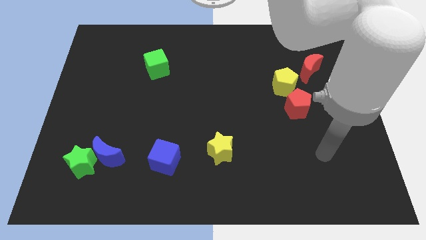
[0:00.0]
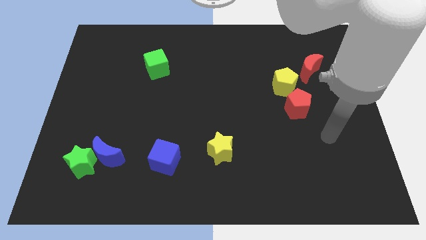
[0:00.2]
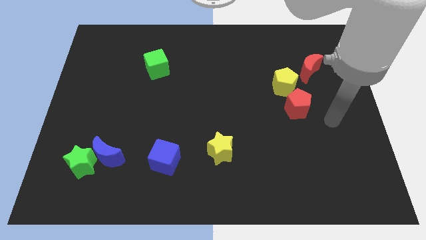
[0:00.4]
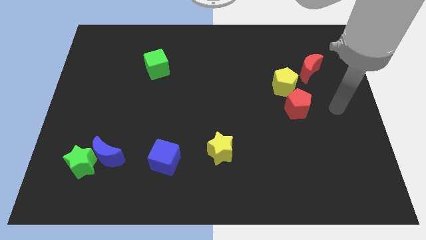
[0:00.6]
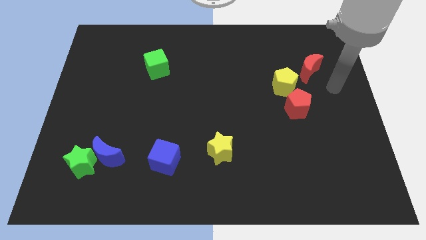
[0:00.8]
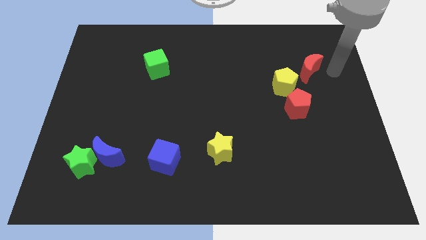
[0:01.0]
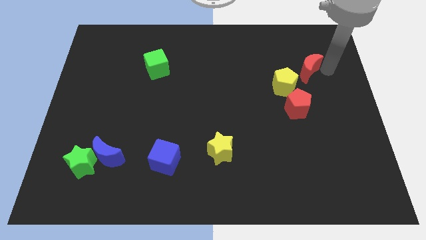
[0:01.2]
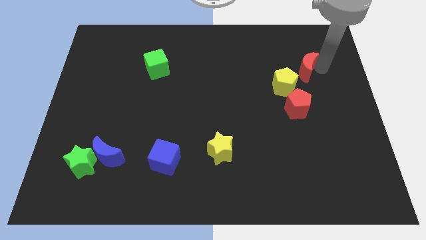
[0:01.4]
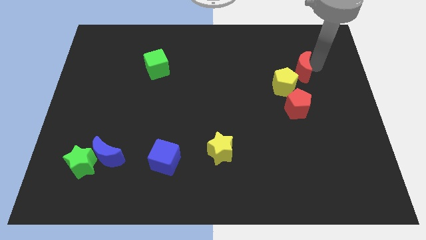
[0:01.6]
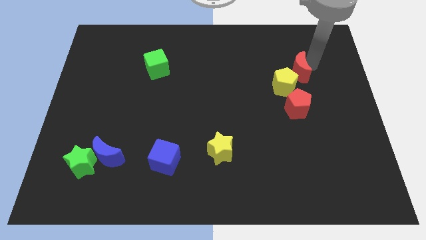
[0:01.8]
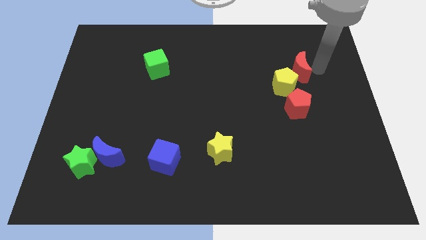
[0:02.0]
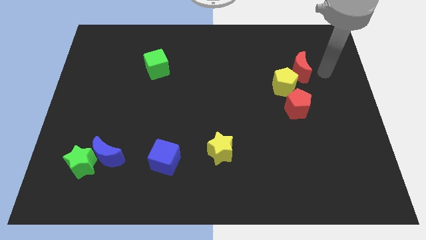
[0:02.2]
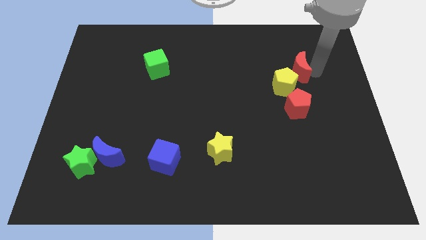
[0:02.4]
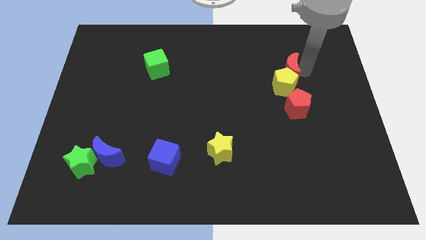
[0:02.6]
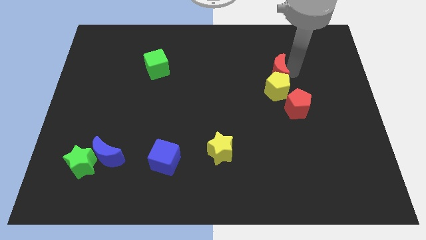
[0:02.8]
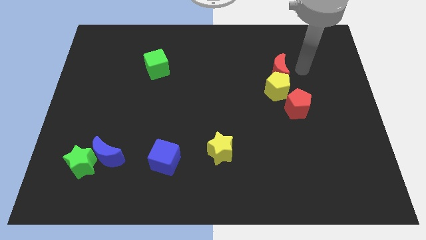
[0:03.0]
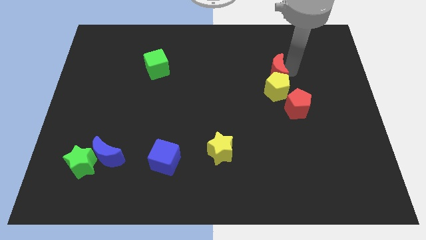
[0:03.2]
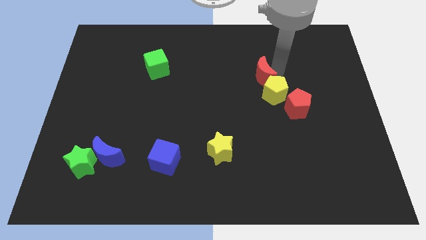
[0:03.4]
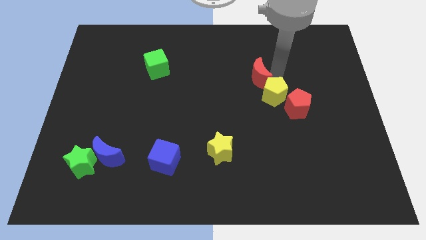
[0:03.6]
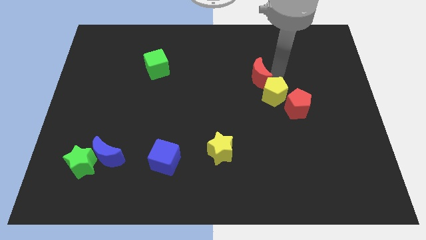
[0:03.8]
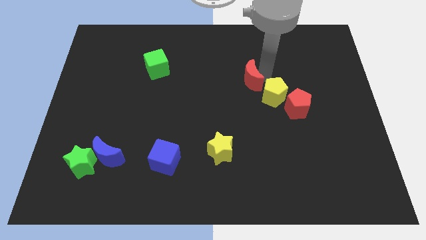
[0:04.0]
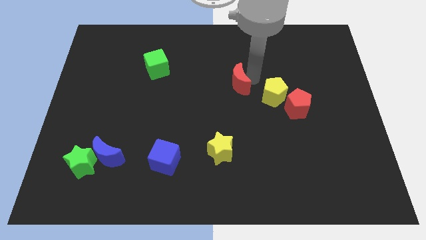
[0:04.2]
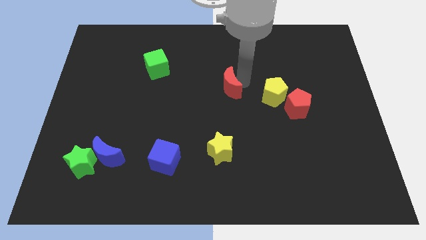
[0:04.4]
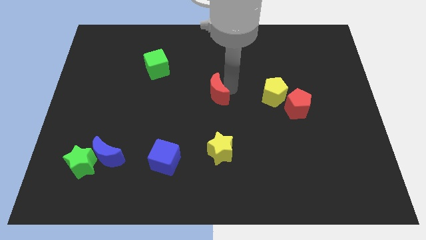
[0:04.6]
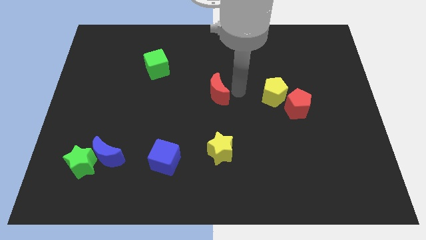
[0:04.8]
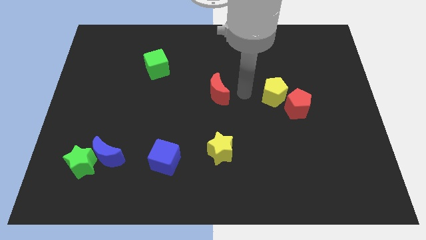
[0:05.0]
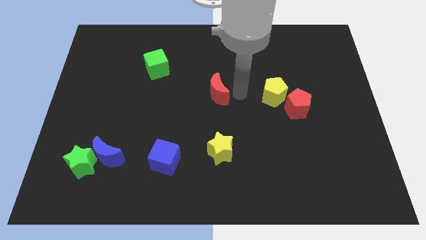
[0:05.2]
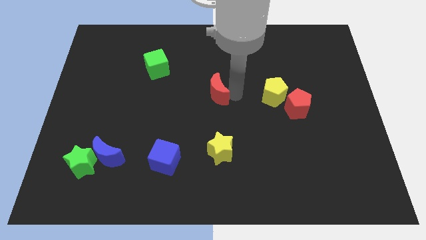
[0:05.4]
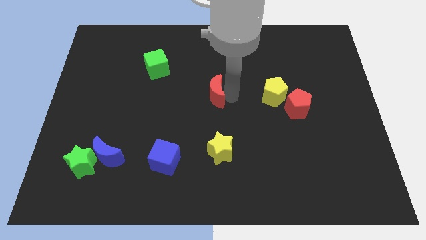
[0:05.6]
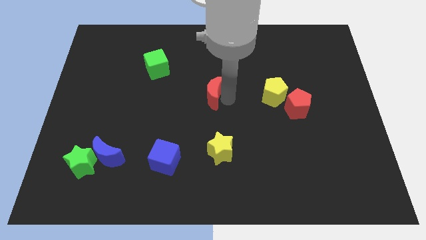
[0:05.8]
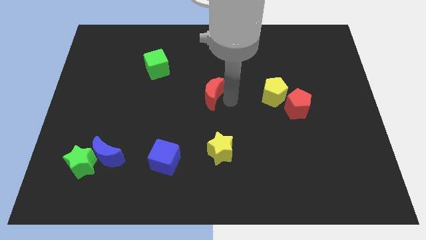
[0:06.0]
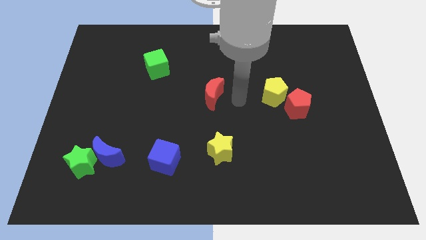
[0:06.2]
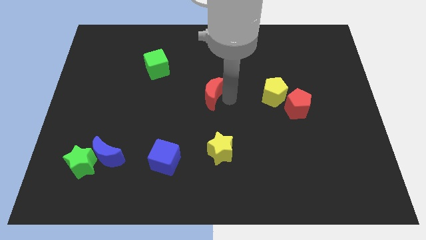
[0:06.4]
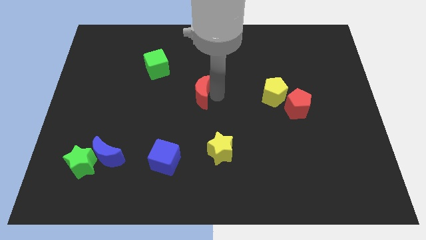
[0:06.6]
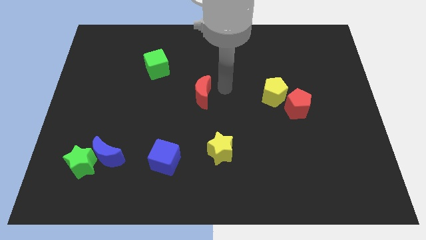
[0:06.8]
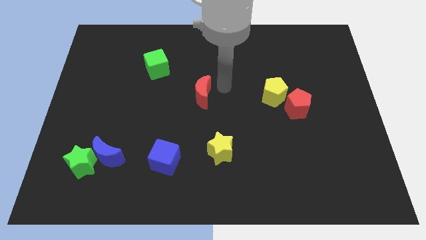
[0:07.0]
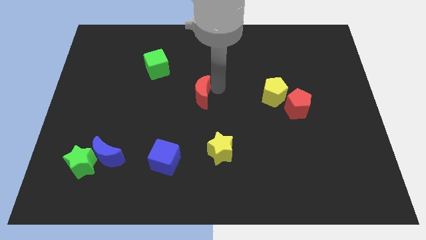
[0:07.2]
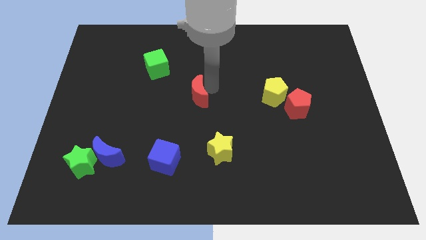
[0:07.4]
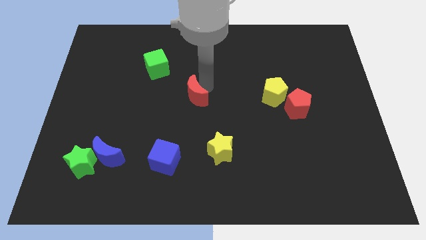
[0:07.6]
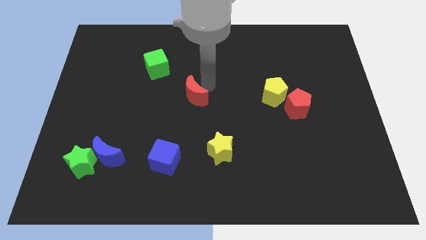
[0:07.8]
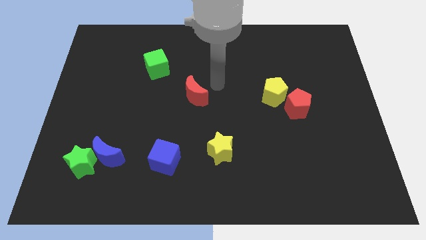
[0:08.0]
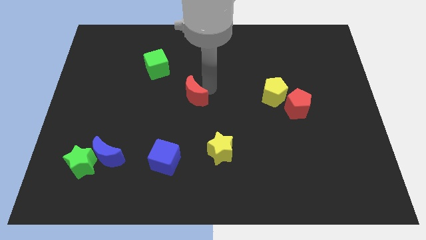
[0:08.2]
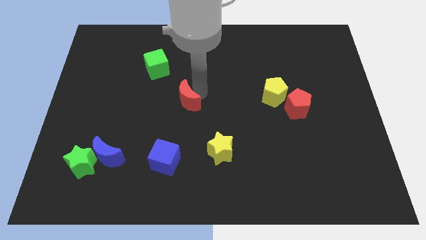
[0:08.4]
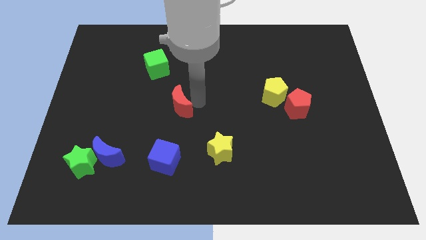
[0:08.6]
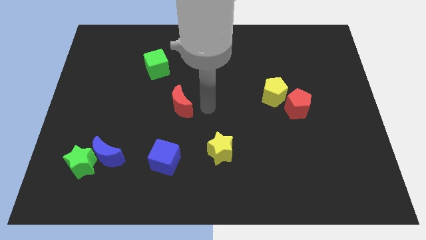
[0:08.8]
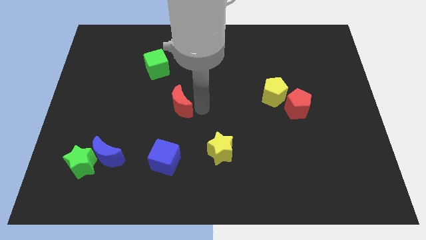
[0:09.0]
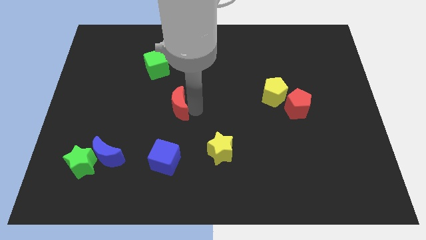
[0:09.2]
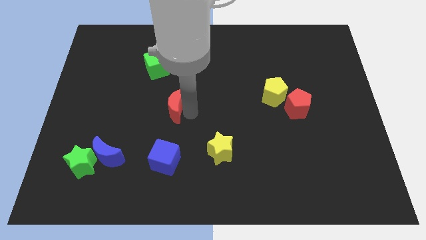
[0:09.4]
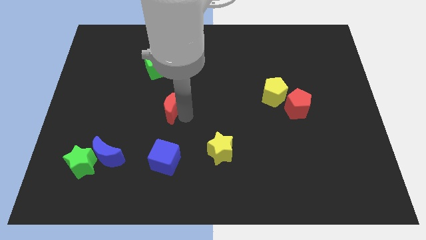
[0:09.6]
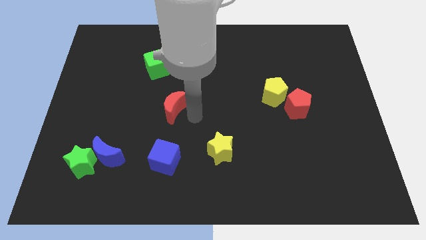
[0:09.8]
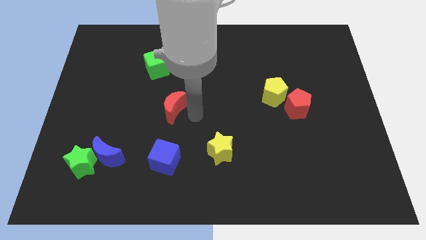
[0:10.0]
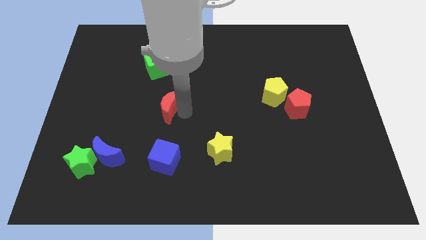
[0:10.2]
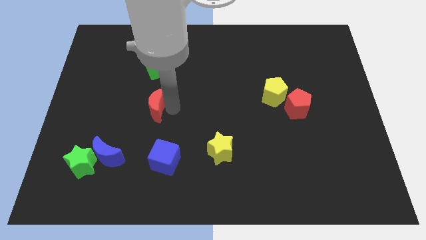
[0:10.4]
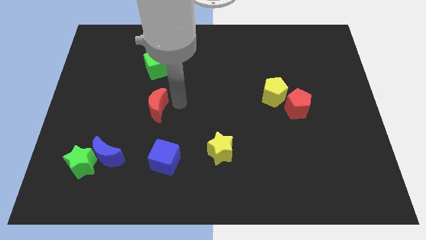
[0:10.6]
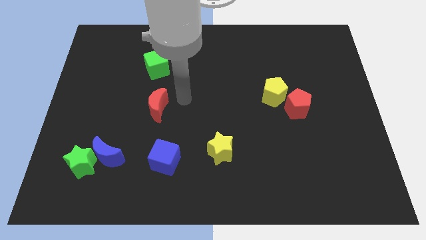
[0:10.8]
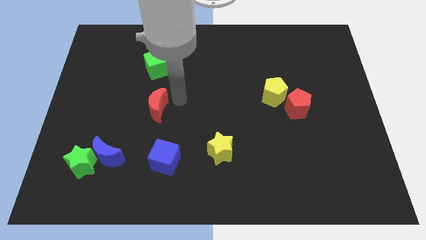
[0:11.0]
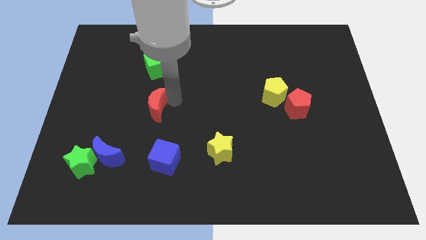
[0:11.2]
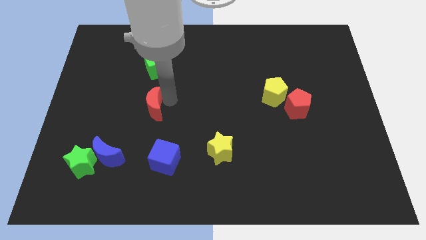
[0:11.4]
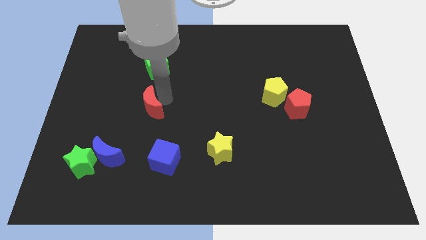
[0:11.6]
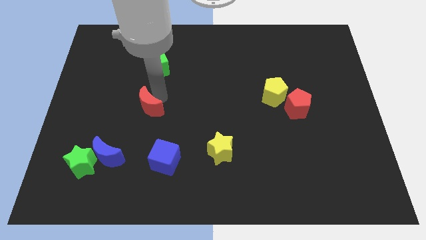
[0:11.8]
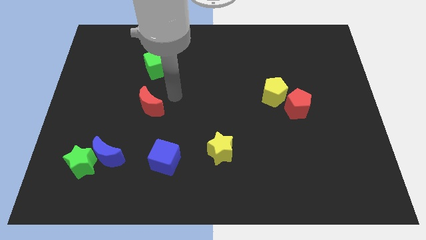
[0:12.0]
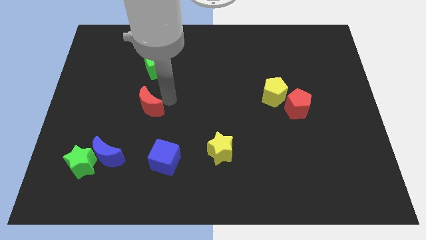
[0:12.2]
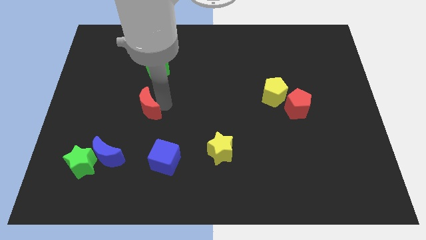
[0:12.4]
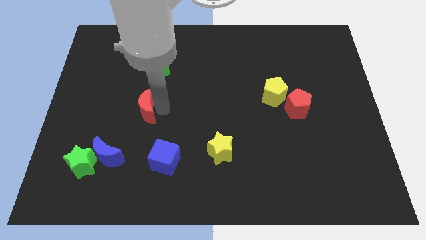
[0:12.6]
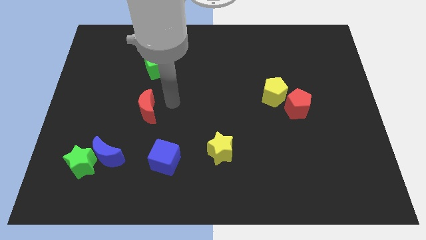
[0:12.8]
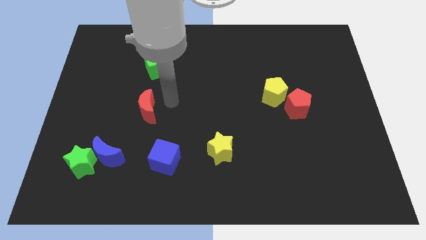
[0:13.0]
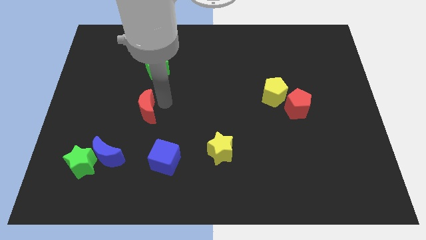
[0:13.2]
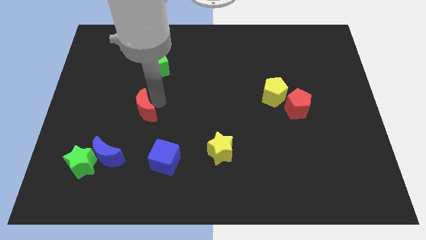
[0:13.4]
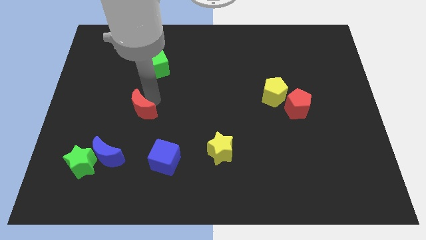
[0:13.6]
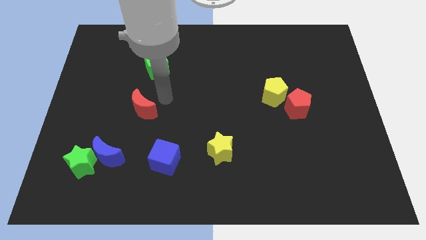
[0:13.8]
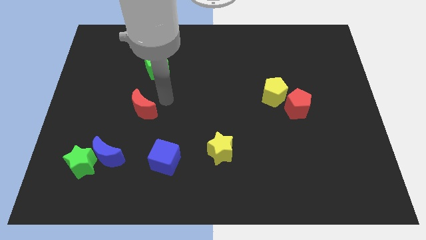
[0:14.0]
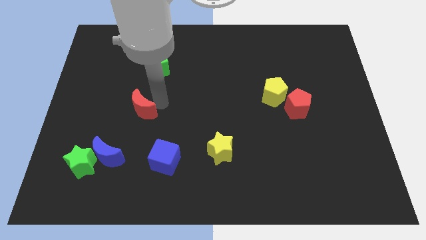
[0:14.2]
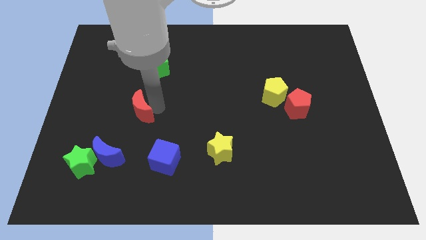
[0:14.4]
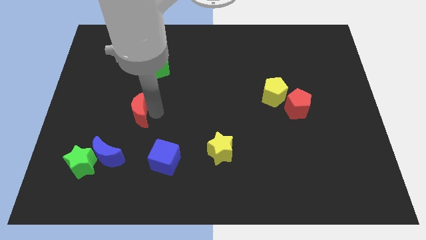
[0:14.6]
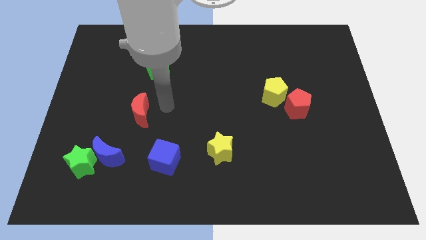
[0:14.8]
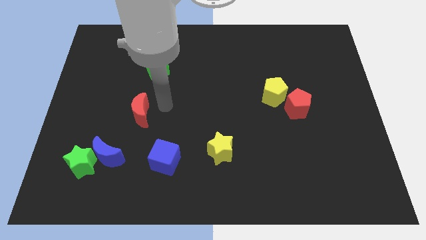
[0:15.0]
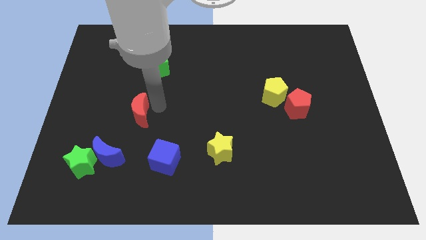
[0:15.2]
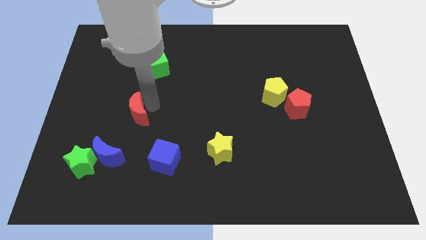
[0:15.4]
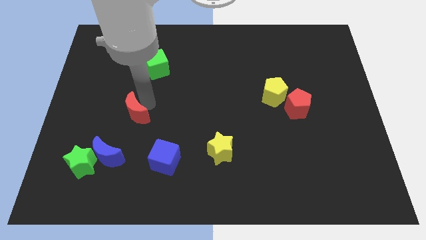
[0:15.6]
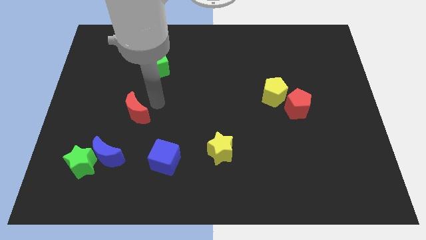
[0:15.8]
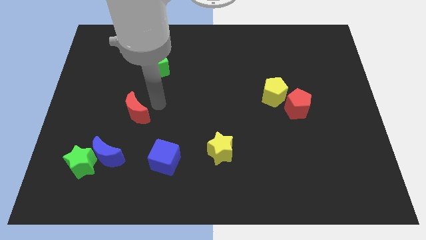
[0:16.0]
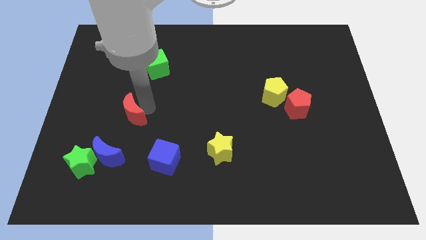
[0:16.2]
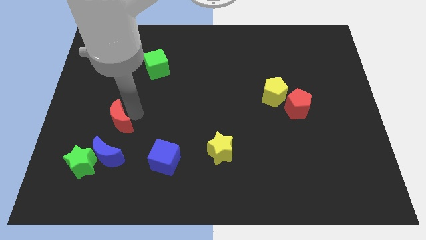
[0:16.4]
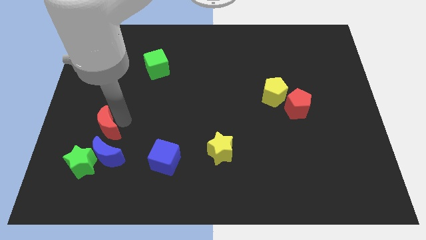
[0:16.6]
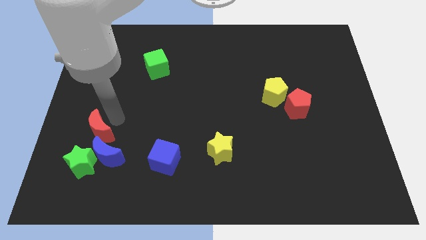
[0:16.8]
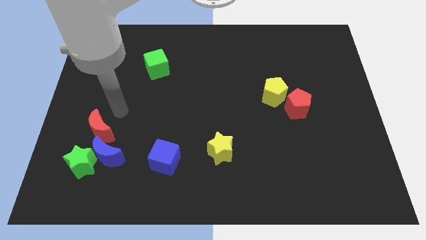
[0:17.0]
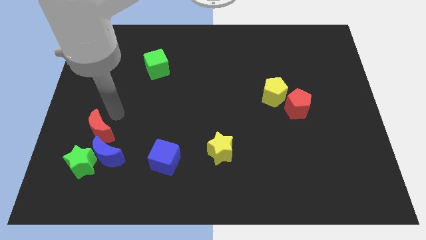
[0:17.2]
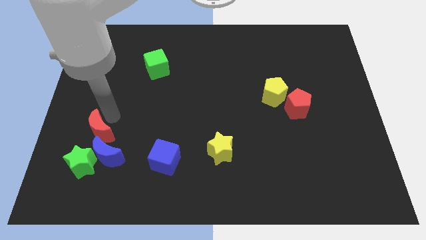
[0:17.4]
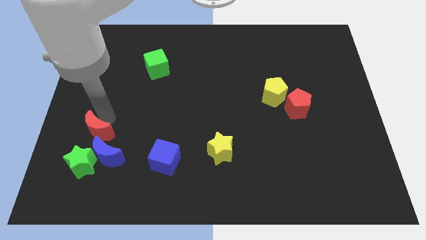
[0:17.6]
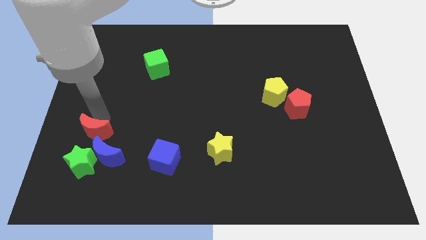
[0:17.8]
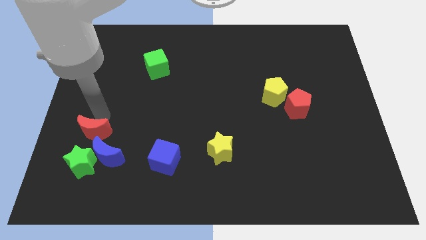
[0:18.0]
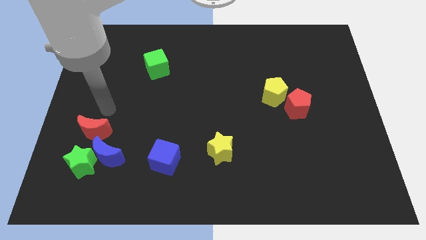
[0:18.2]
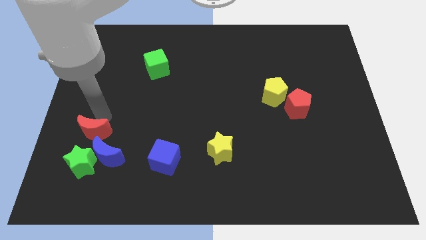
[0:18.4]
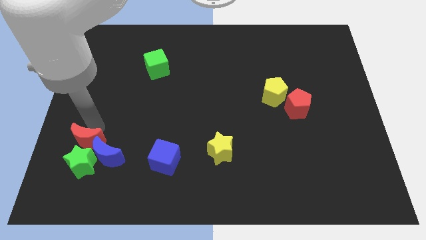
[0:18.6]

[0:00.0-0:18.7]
push the red moon close to the green star
